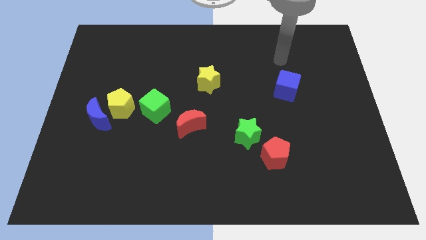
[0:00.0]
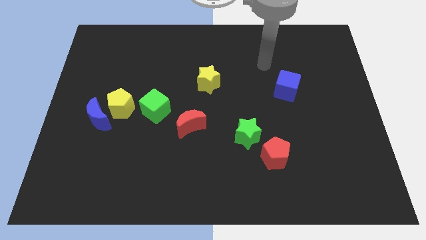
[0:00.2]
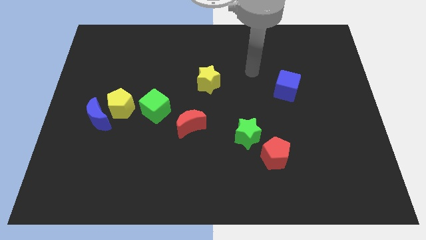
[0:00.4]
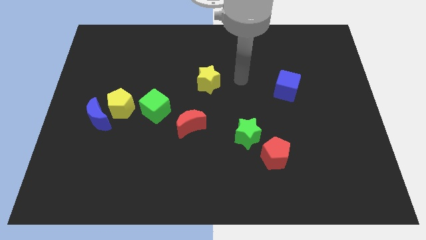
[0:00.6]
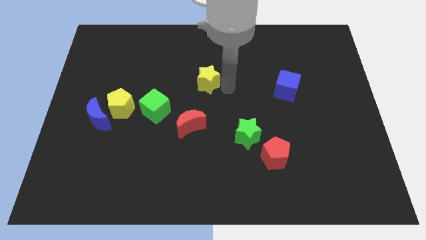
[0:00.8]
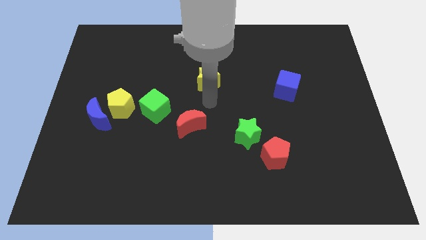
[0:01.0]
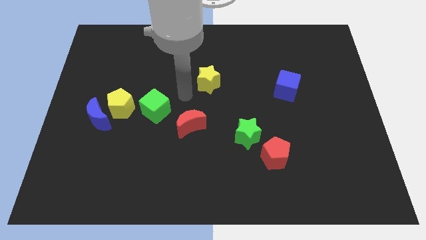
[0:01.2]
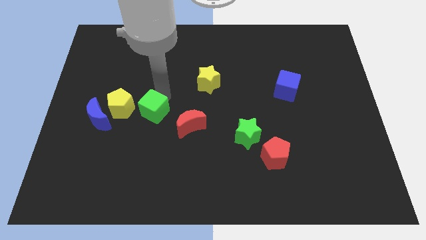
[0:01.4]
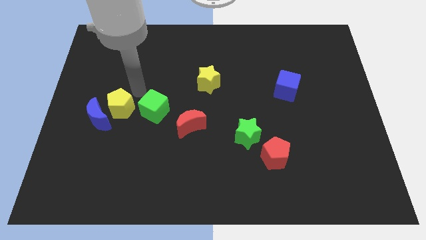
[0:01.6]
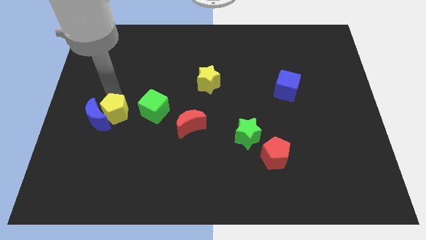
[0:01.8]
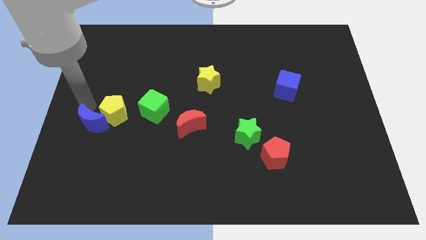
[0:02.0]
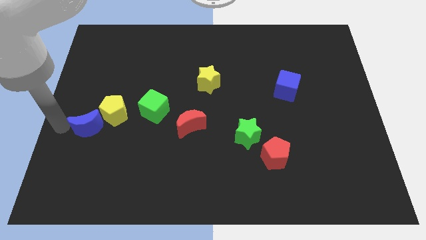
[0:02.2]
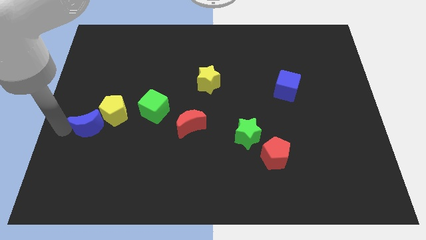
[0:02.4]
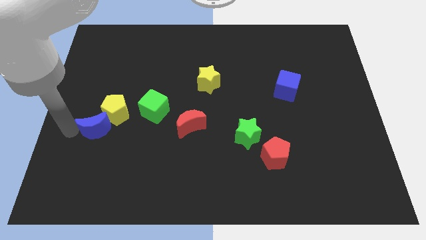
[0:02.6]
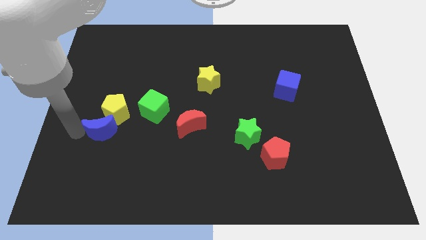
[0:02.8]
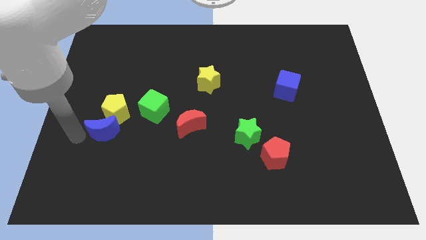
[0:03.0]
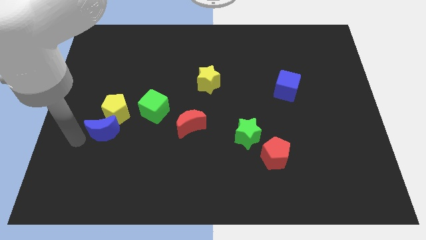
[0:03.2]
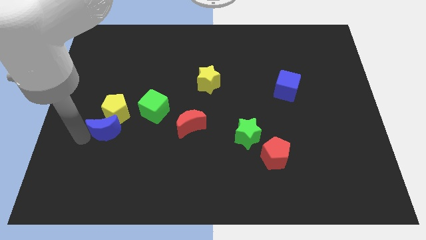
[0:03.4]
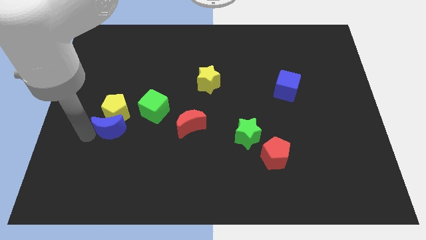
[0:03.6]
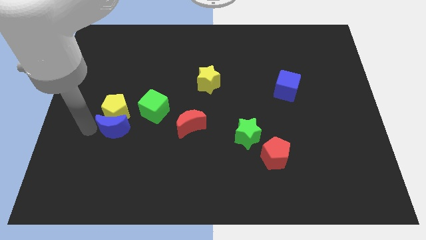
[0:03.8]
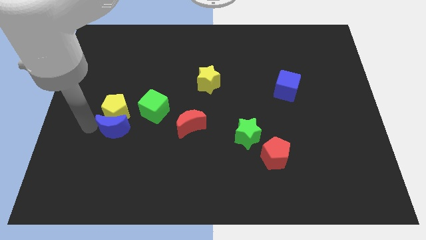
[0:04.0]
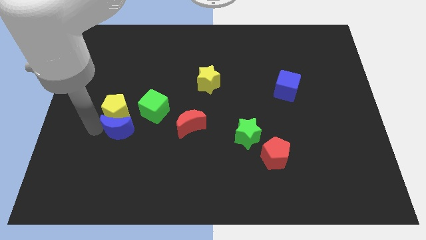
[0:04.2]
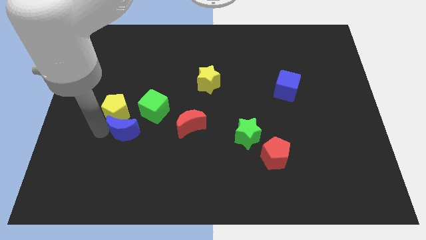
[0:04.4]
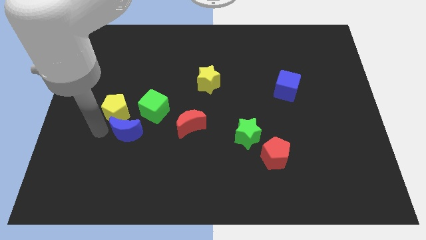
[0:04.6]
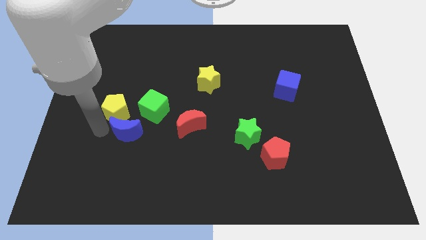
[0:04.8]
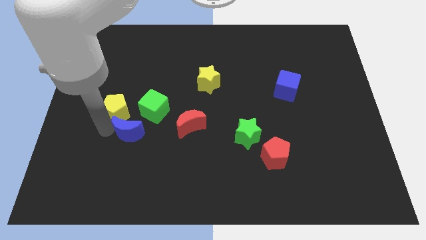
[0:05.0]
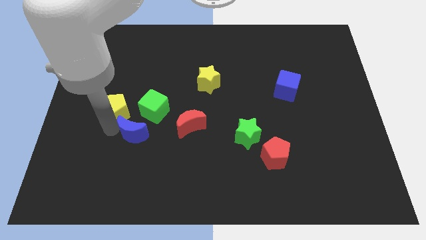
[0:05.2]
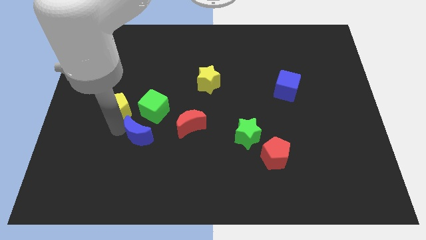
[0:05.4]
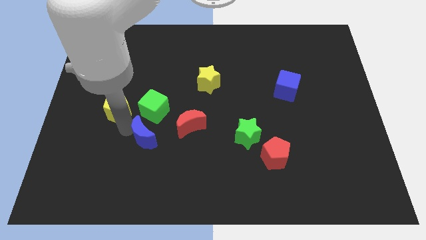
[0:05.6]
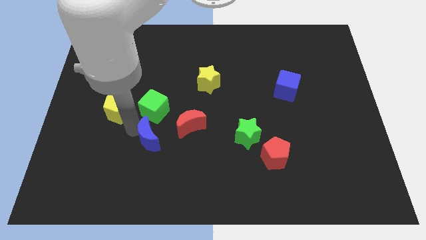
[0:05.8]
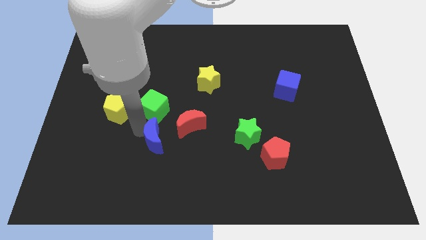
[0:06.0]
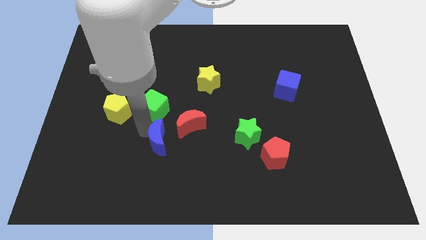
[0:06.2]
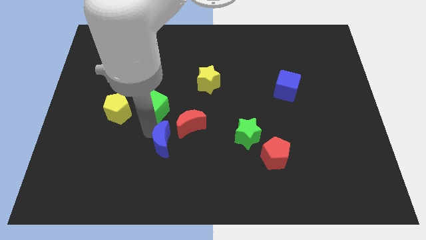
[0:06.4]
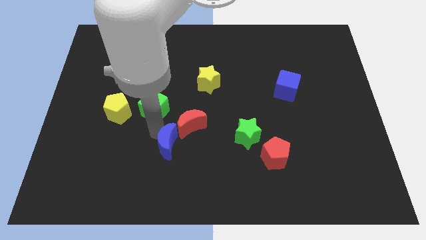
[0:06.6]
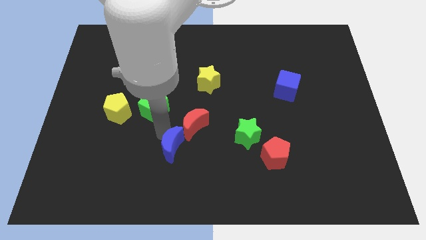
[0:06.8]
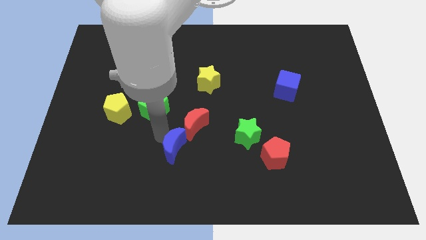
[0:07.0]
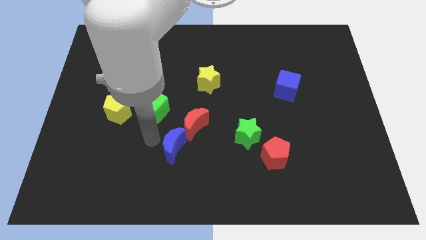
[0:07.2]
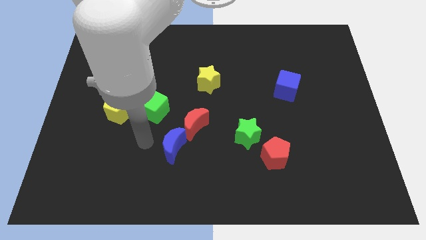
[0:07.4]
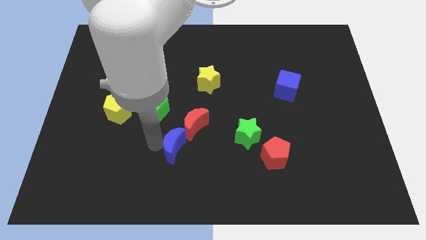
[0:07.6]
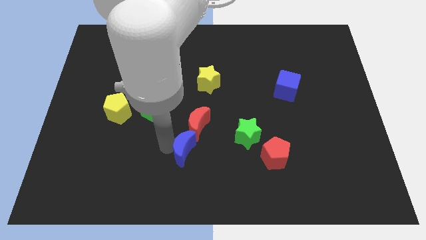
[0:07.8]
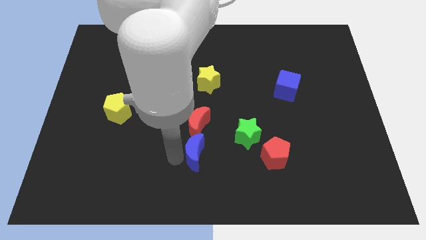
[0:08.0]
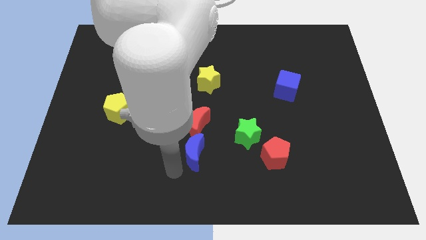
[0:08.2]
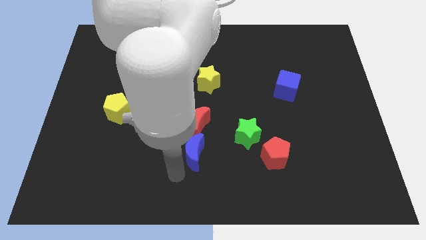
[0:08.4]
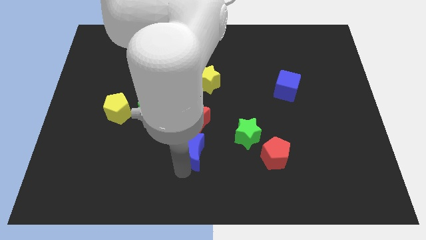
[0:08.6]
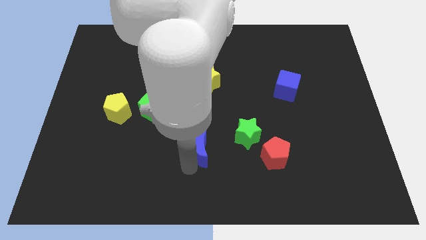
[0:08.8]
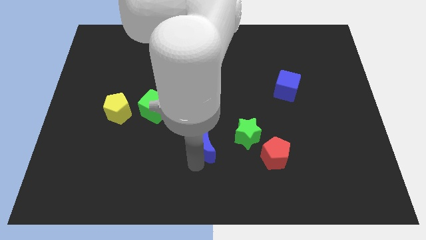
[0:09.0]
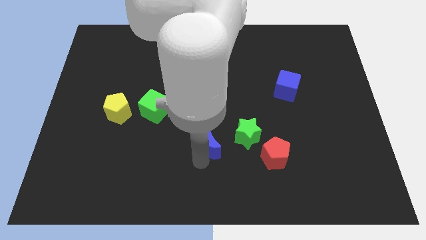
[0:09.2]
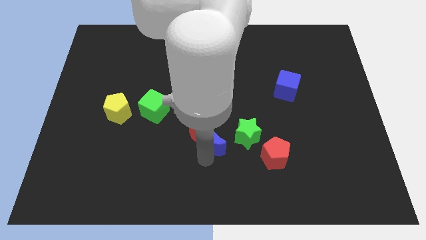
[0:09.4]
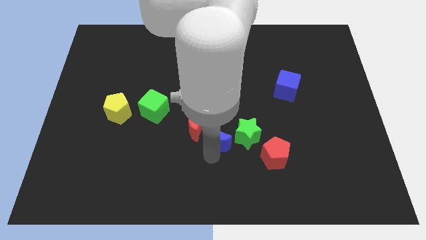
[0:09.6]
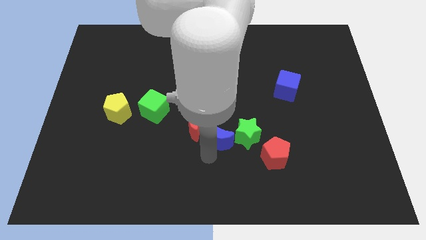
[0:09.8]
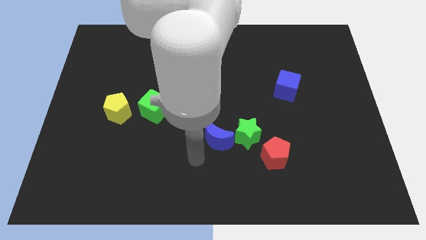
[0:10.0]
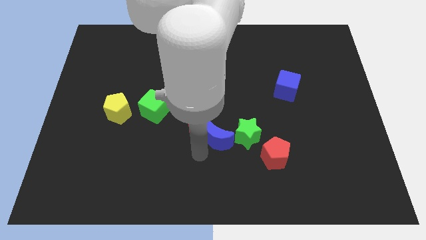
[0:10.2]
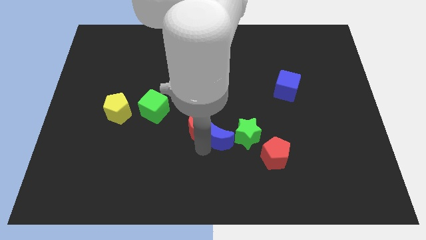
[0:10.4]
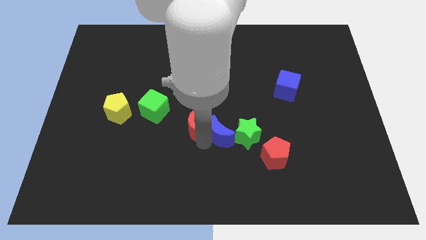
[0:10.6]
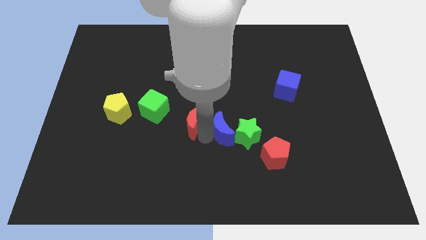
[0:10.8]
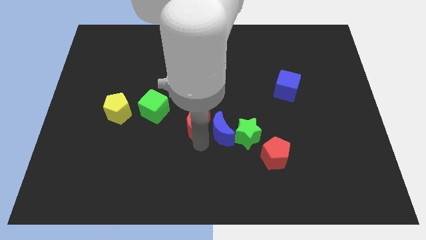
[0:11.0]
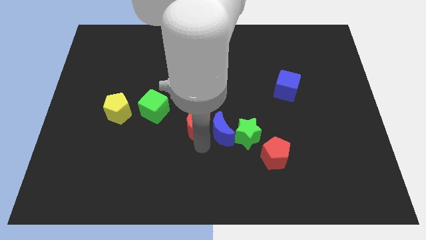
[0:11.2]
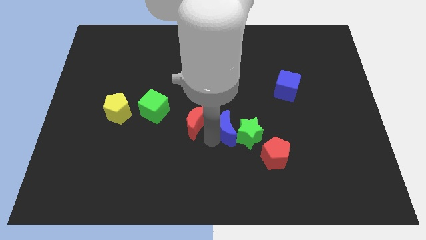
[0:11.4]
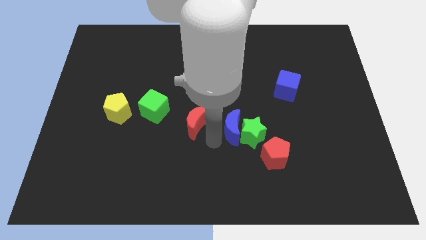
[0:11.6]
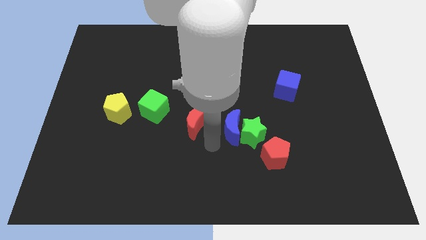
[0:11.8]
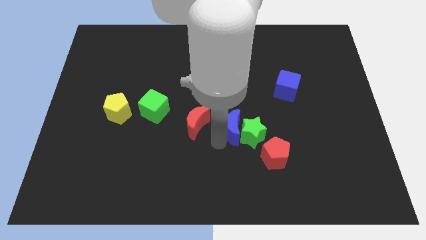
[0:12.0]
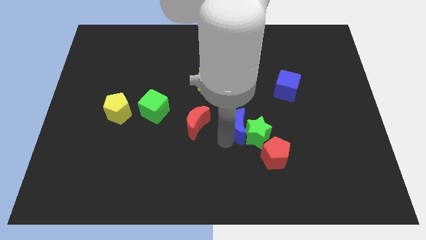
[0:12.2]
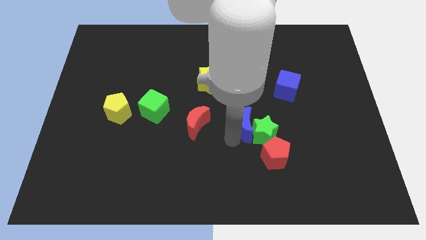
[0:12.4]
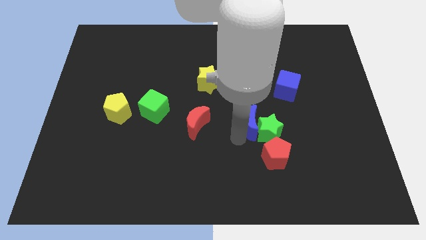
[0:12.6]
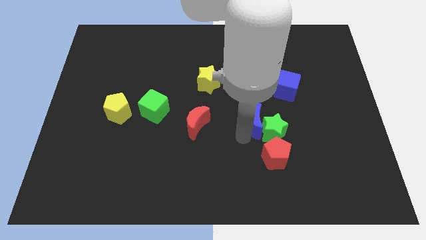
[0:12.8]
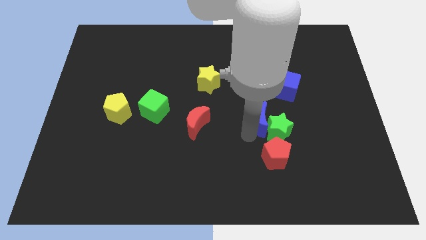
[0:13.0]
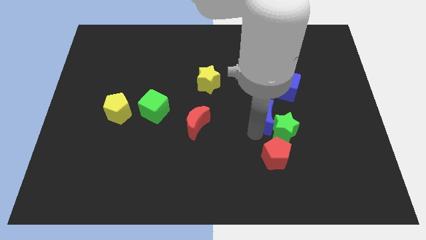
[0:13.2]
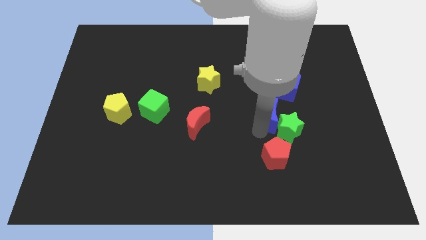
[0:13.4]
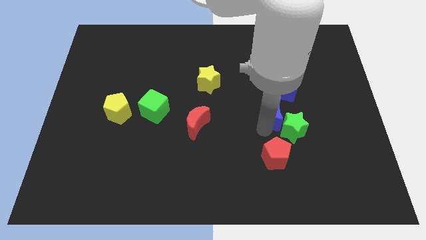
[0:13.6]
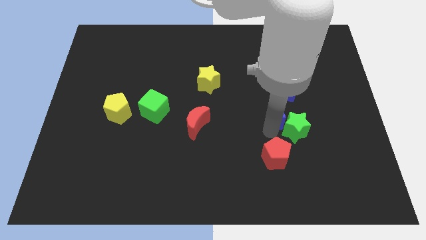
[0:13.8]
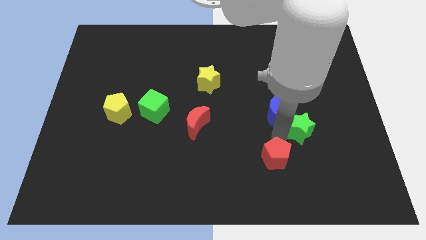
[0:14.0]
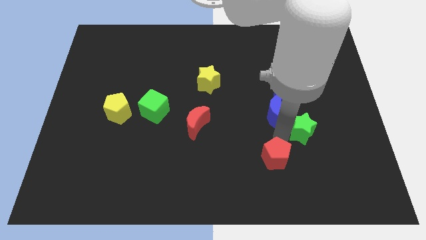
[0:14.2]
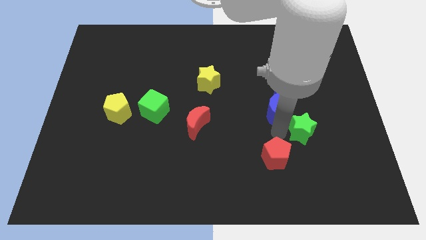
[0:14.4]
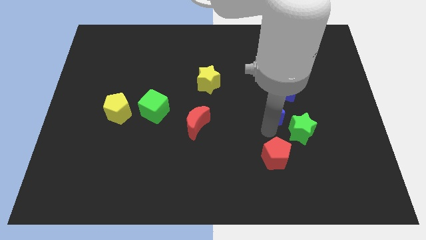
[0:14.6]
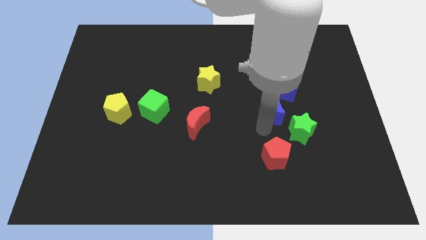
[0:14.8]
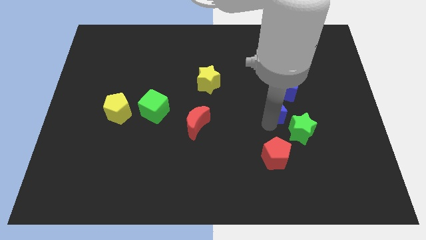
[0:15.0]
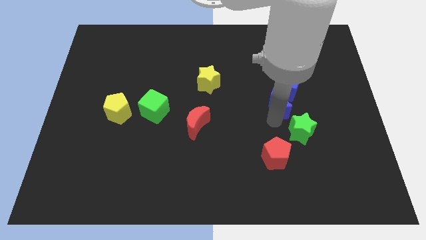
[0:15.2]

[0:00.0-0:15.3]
put the blue moon to the blue cube
